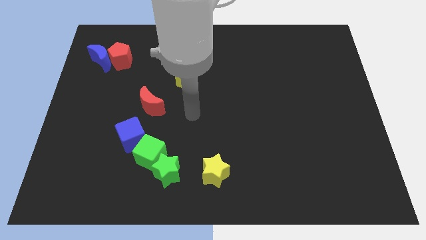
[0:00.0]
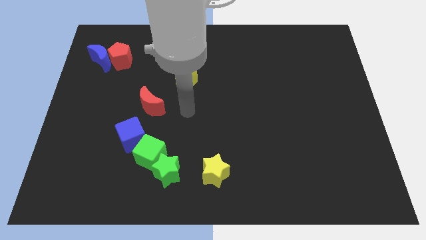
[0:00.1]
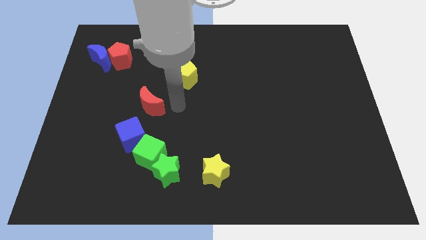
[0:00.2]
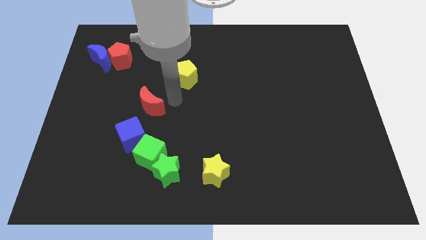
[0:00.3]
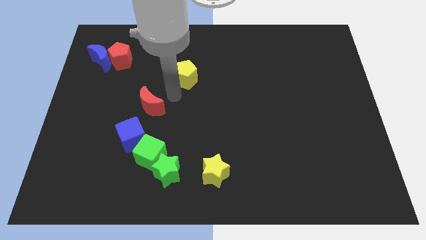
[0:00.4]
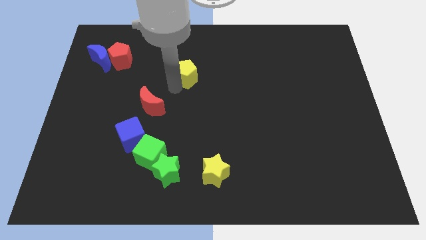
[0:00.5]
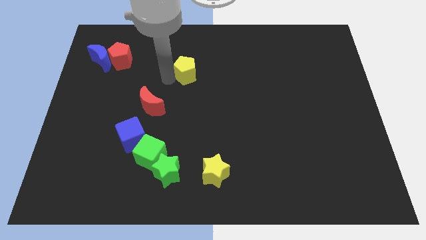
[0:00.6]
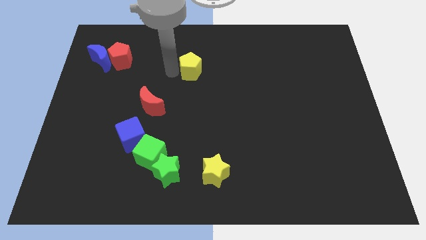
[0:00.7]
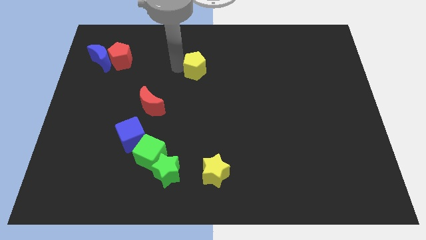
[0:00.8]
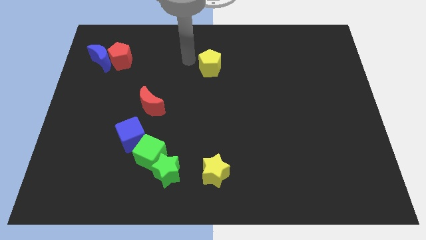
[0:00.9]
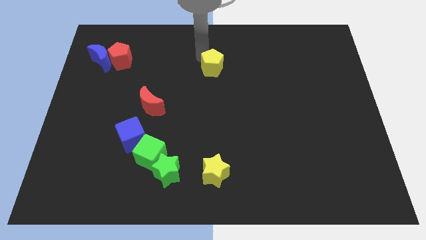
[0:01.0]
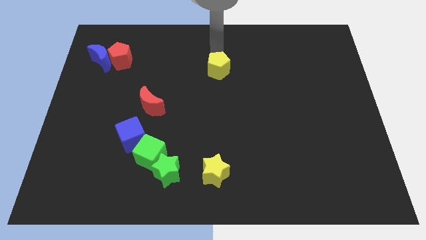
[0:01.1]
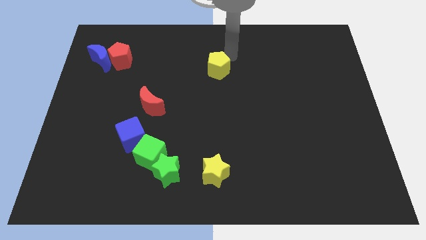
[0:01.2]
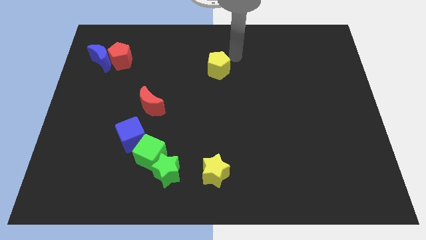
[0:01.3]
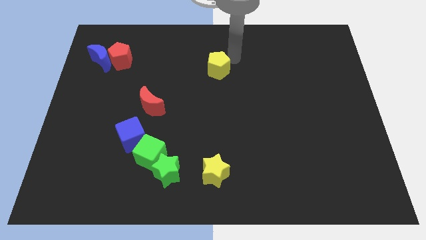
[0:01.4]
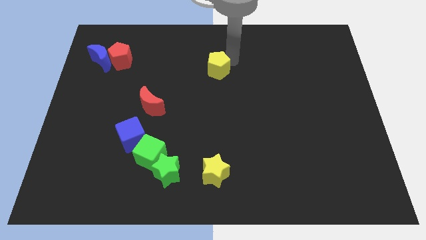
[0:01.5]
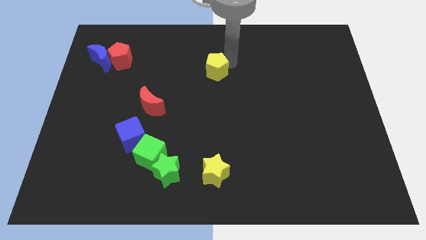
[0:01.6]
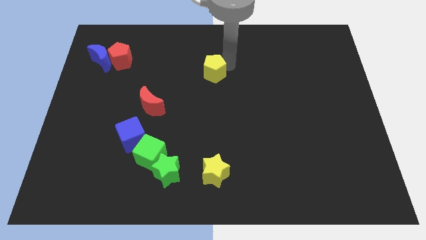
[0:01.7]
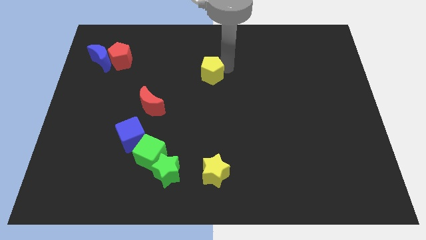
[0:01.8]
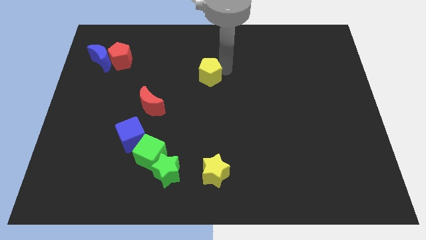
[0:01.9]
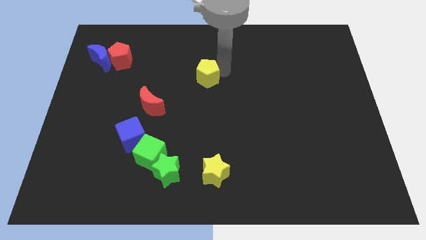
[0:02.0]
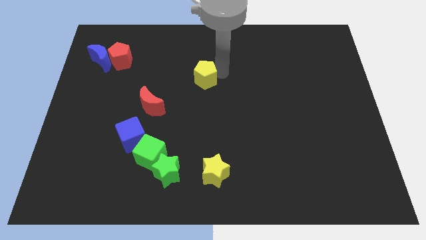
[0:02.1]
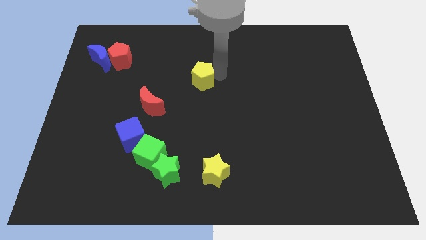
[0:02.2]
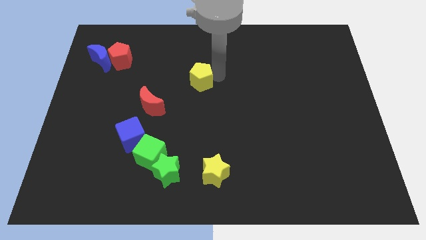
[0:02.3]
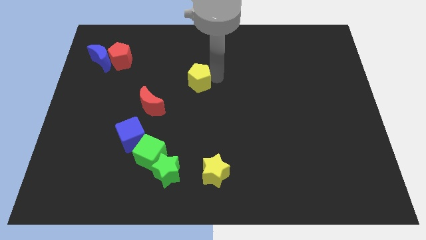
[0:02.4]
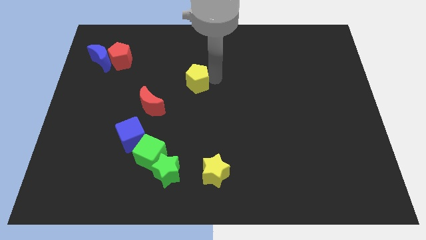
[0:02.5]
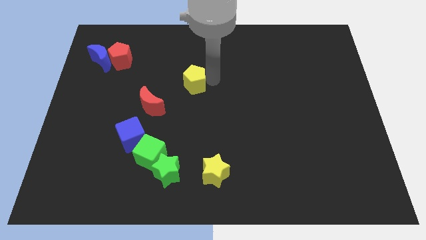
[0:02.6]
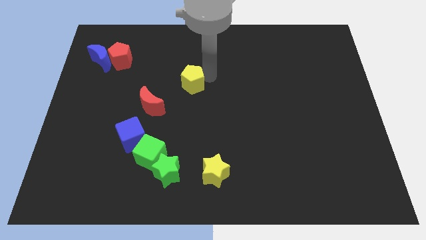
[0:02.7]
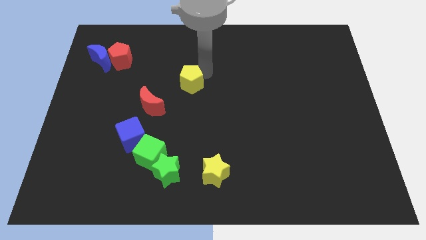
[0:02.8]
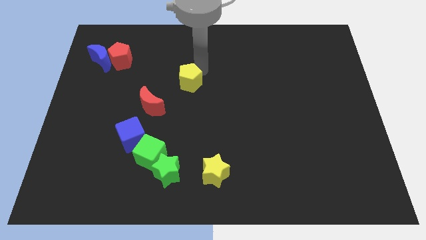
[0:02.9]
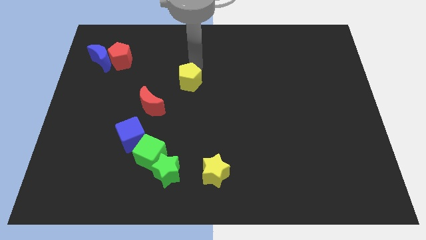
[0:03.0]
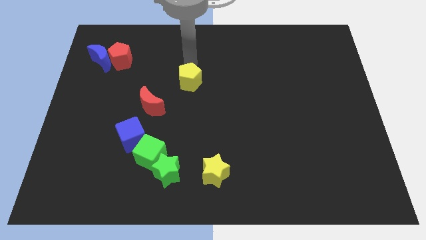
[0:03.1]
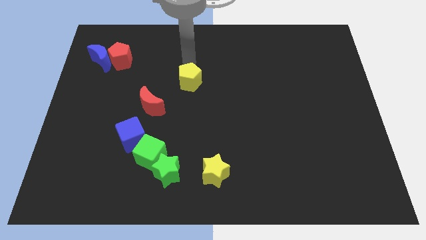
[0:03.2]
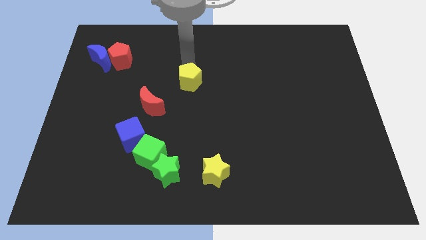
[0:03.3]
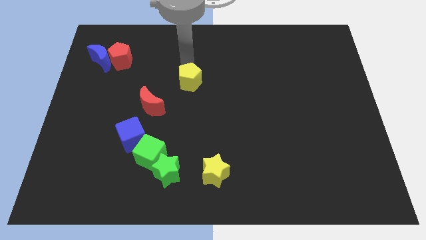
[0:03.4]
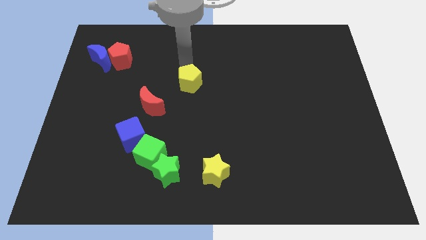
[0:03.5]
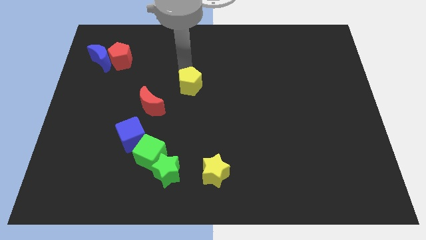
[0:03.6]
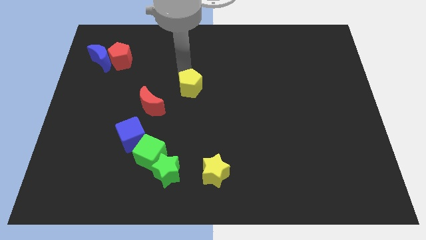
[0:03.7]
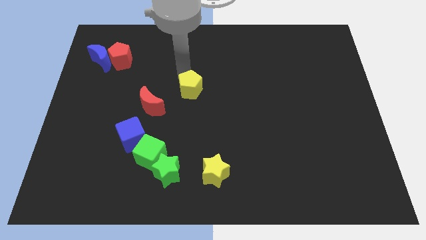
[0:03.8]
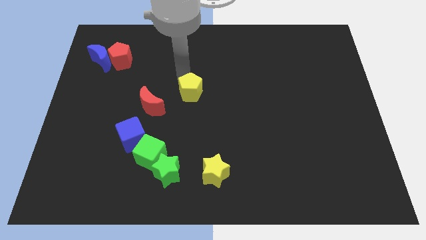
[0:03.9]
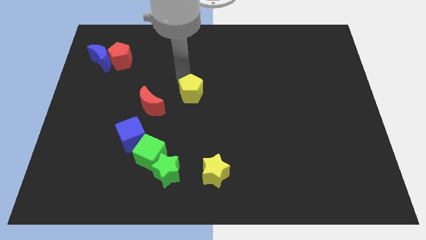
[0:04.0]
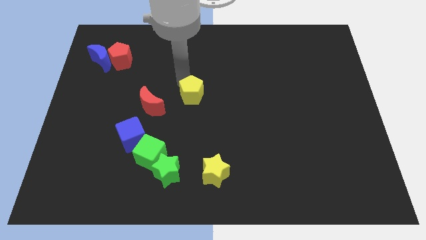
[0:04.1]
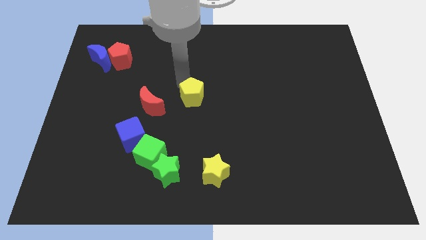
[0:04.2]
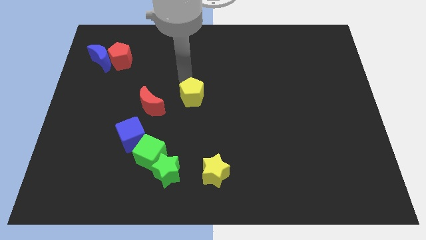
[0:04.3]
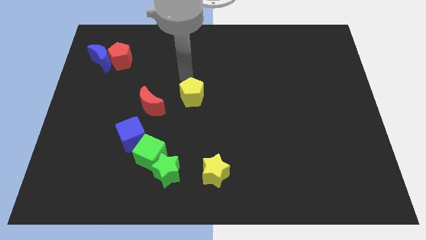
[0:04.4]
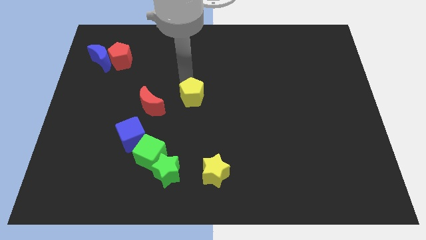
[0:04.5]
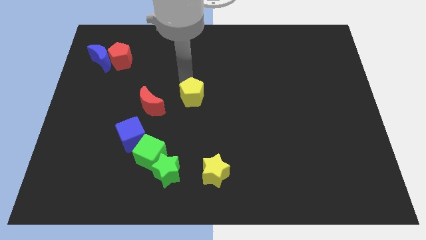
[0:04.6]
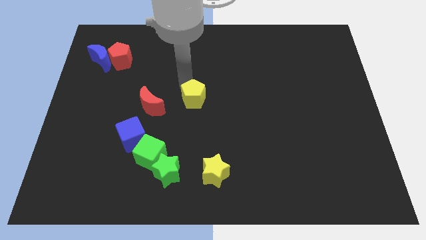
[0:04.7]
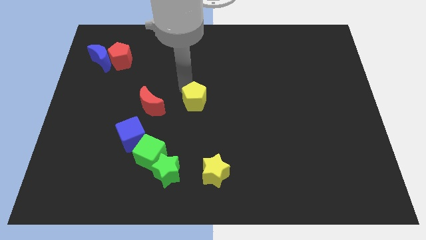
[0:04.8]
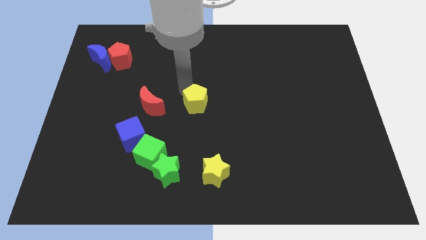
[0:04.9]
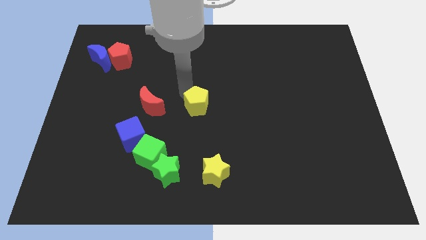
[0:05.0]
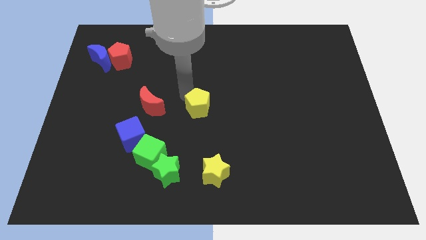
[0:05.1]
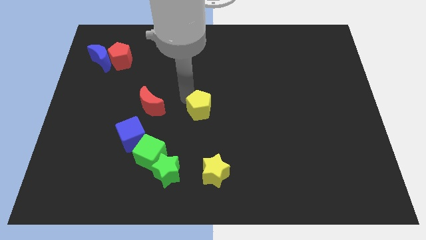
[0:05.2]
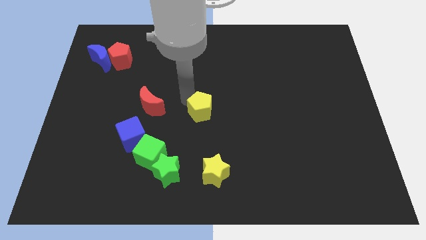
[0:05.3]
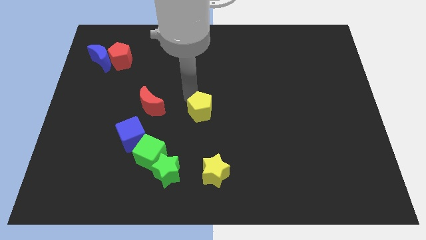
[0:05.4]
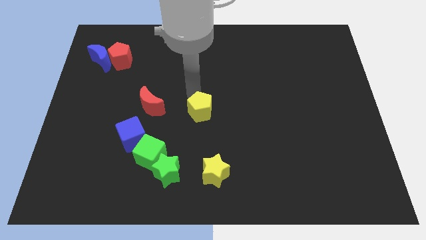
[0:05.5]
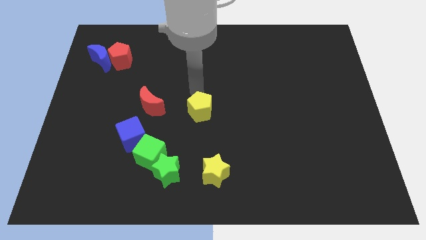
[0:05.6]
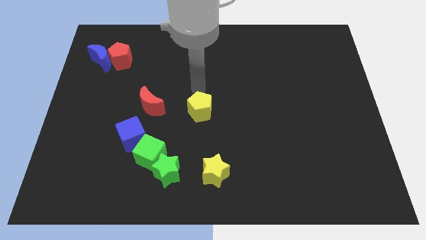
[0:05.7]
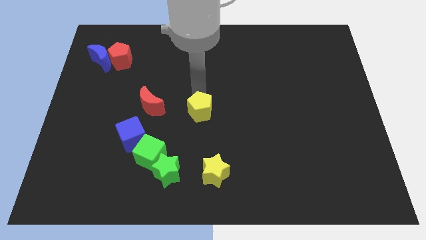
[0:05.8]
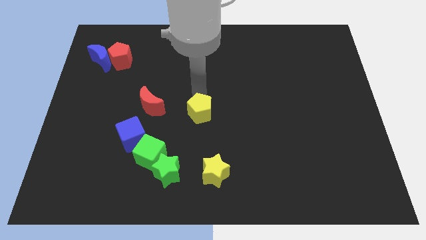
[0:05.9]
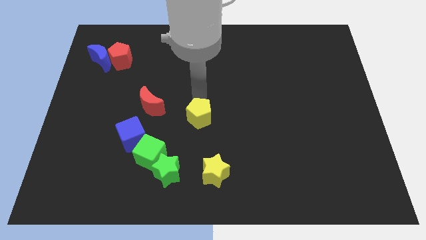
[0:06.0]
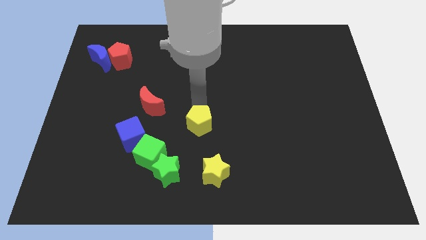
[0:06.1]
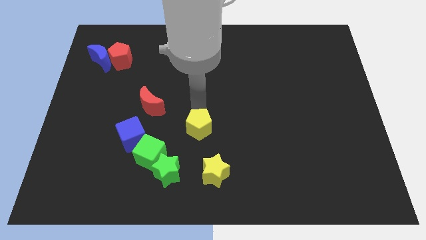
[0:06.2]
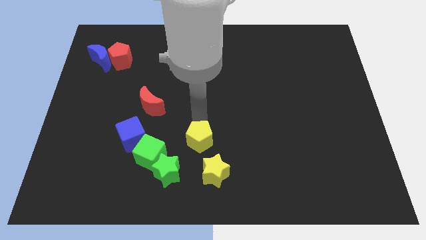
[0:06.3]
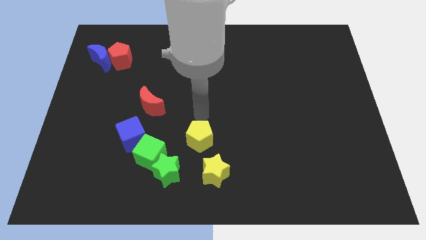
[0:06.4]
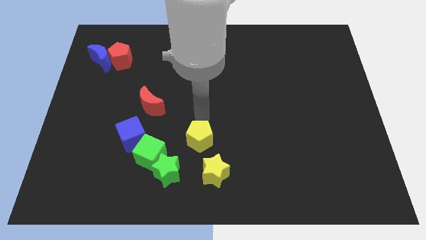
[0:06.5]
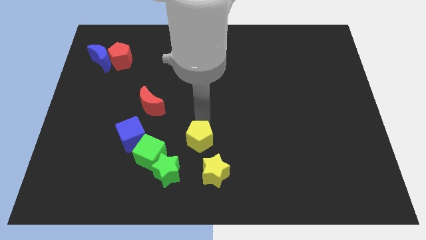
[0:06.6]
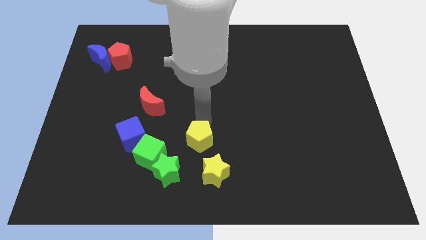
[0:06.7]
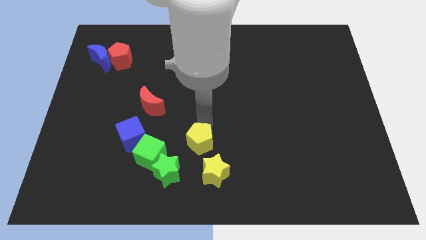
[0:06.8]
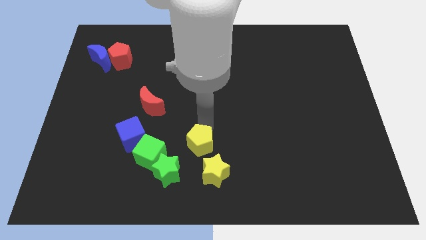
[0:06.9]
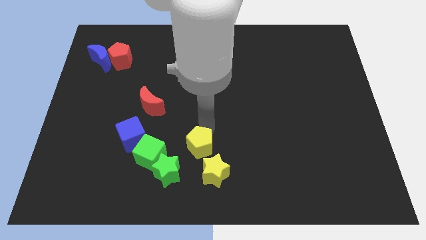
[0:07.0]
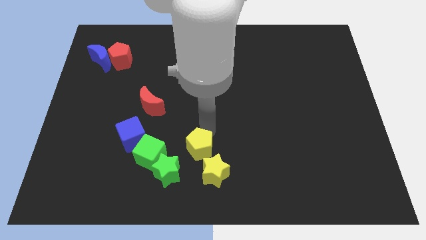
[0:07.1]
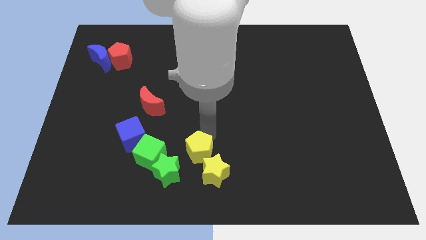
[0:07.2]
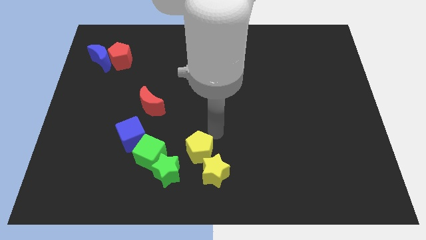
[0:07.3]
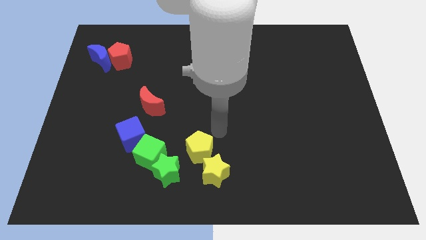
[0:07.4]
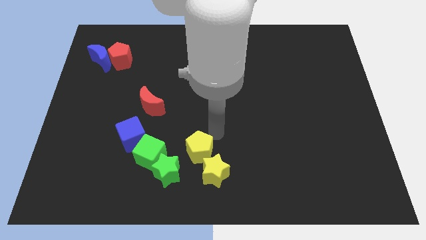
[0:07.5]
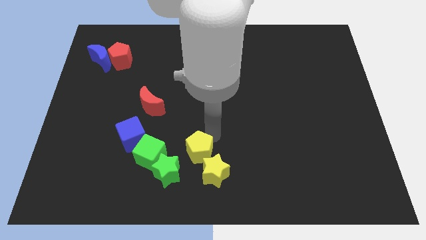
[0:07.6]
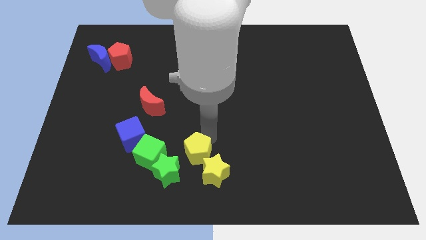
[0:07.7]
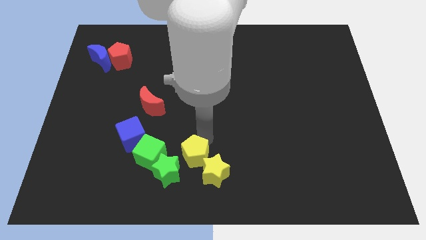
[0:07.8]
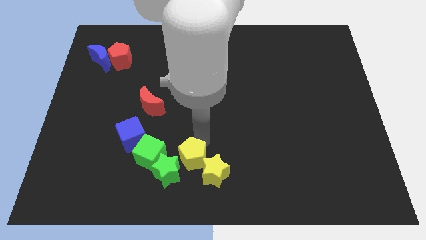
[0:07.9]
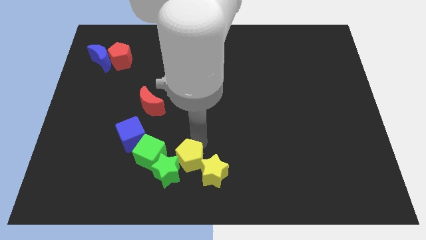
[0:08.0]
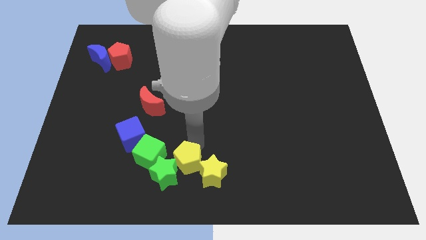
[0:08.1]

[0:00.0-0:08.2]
slide the yellow pentagon to the bottom right of the green cube

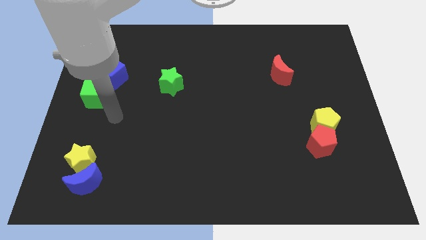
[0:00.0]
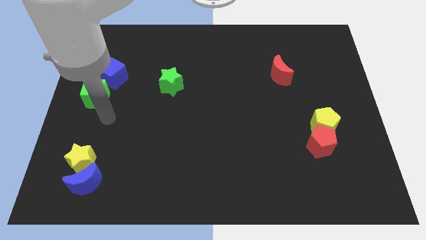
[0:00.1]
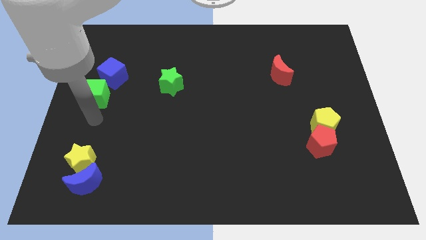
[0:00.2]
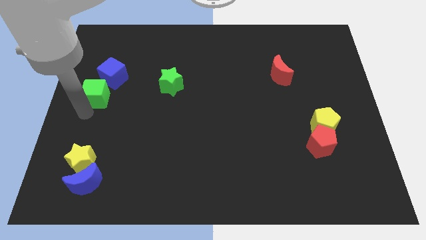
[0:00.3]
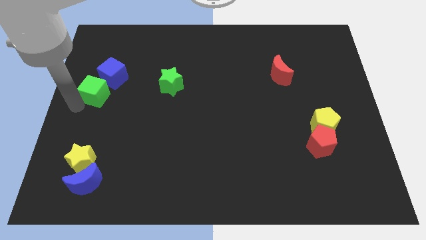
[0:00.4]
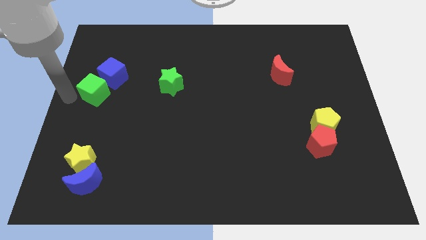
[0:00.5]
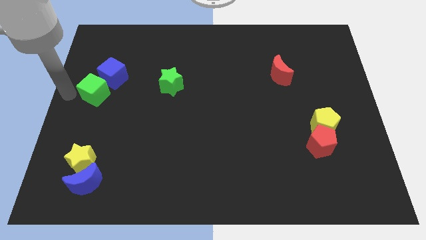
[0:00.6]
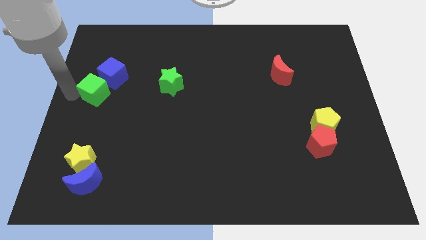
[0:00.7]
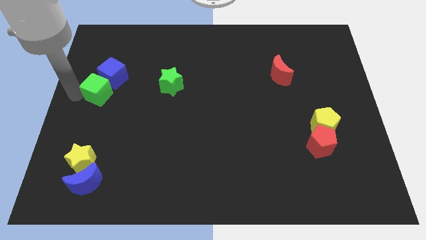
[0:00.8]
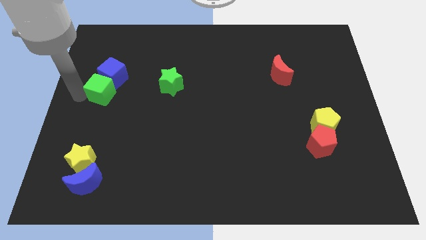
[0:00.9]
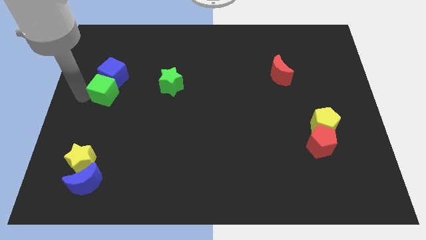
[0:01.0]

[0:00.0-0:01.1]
move the green cube diagonally down and to the right of the blue cube
